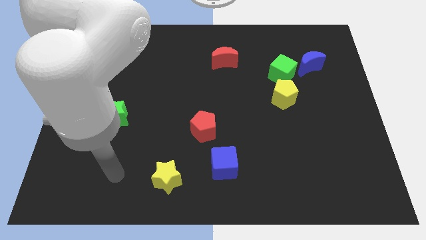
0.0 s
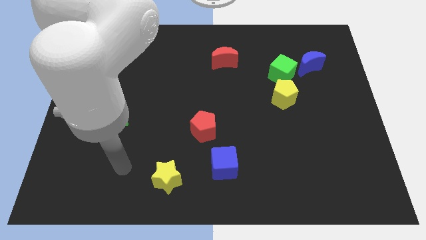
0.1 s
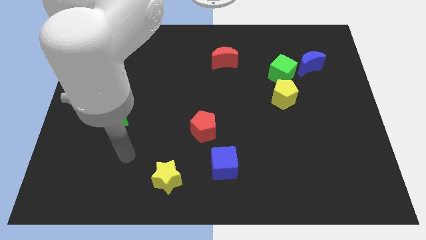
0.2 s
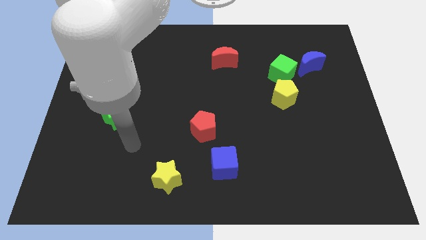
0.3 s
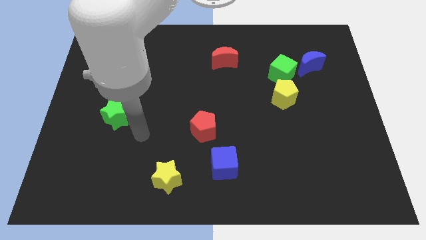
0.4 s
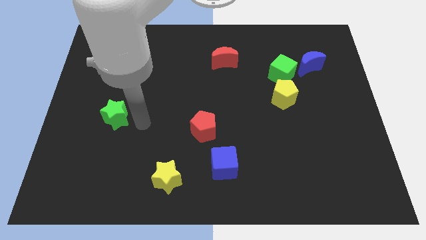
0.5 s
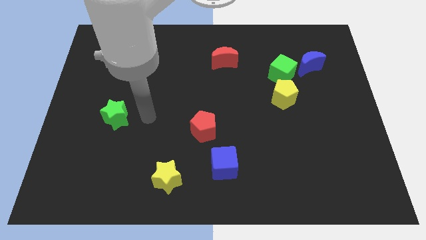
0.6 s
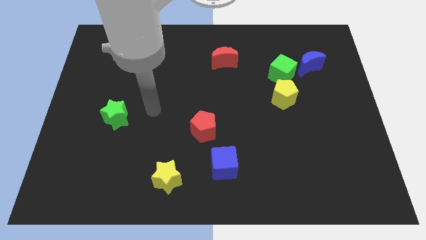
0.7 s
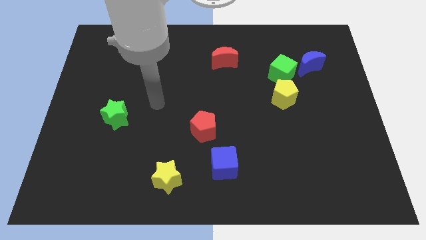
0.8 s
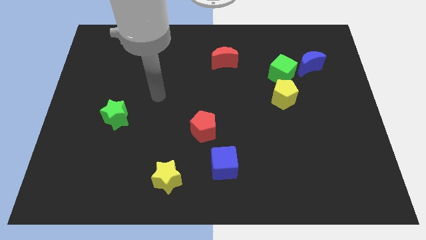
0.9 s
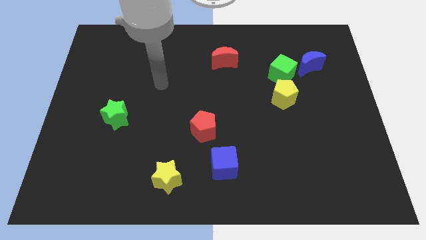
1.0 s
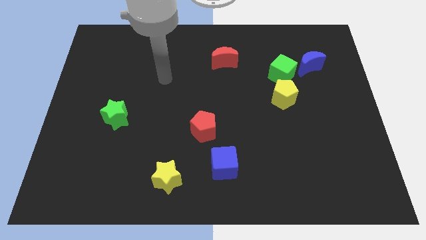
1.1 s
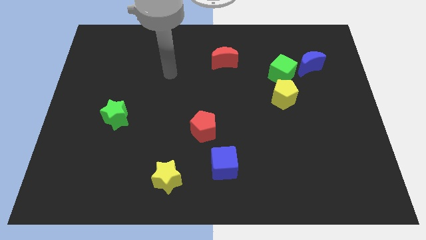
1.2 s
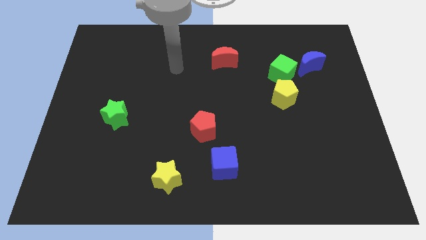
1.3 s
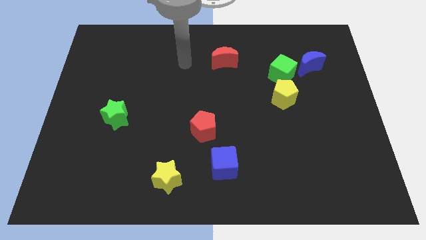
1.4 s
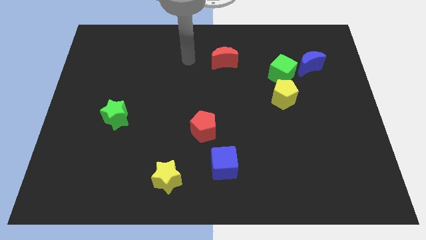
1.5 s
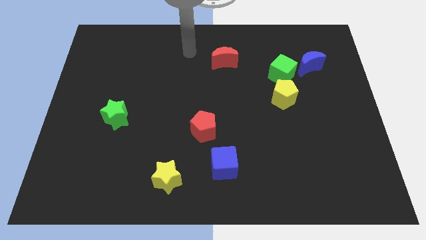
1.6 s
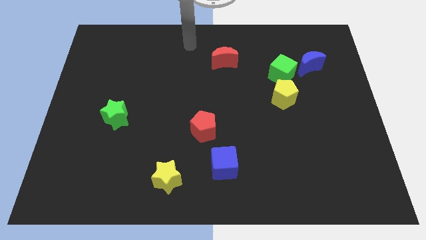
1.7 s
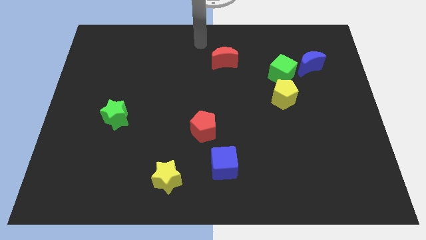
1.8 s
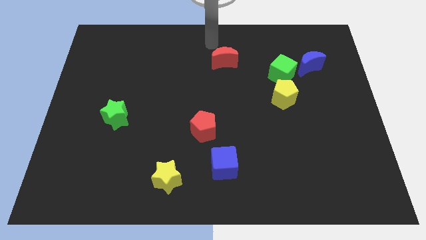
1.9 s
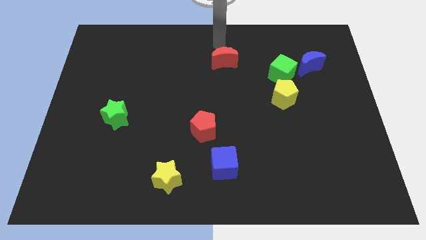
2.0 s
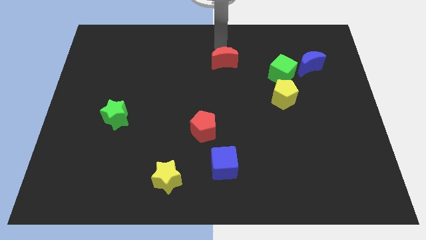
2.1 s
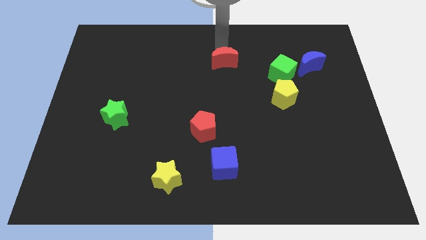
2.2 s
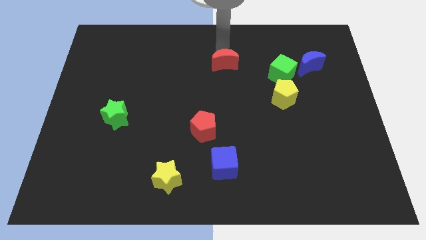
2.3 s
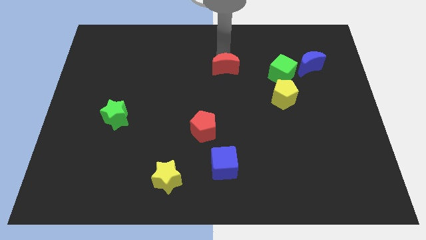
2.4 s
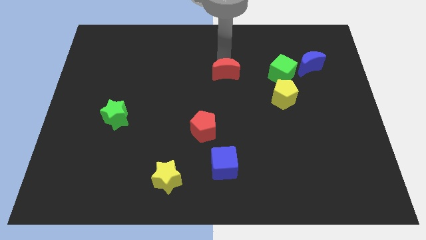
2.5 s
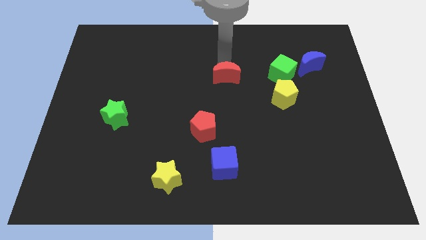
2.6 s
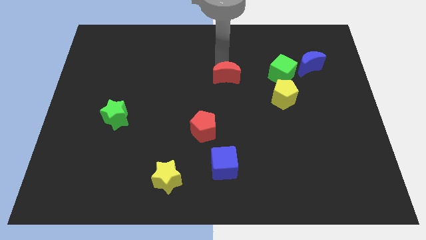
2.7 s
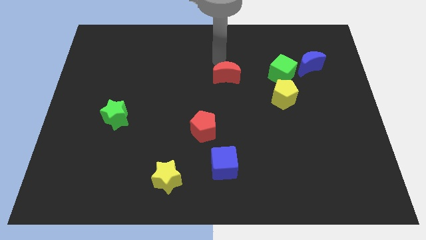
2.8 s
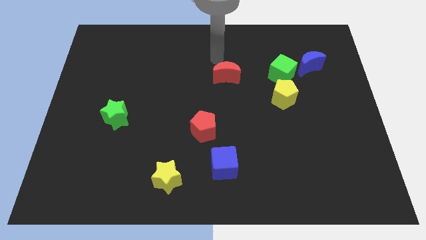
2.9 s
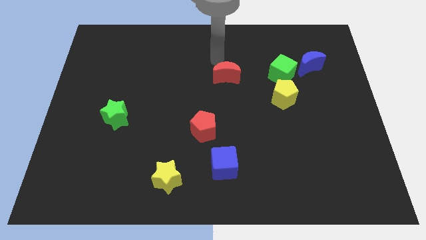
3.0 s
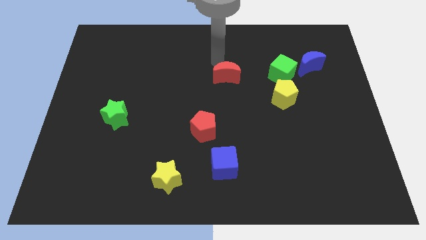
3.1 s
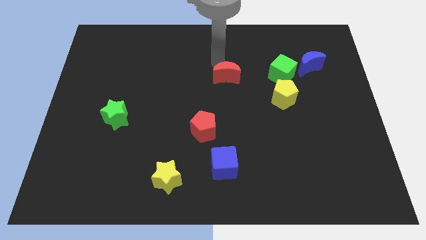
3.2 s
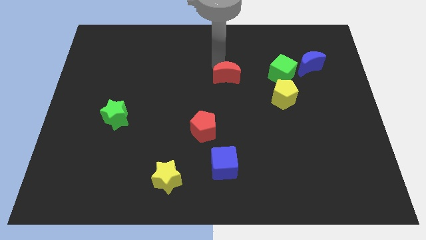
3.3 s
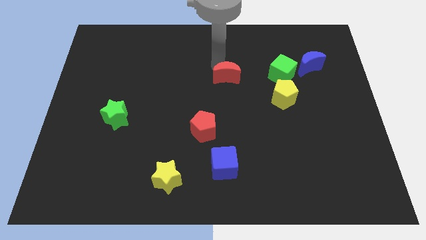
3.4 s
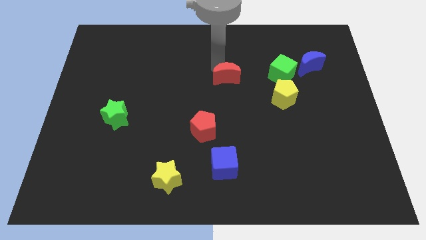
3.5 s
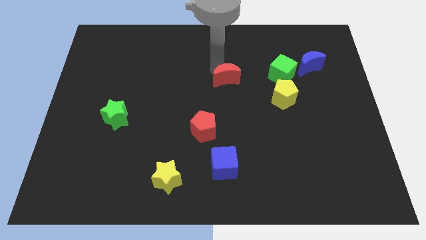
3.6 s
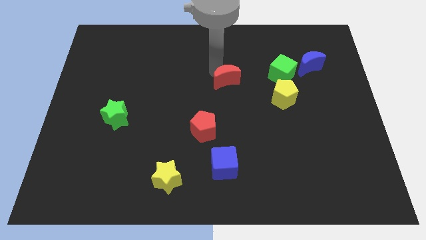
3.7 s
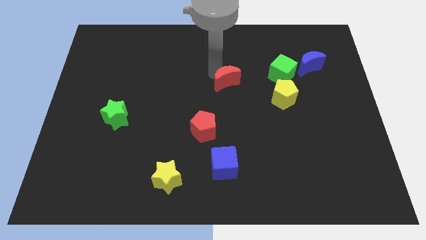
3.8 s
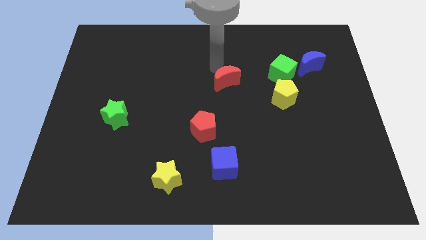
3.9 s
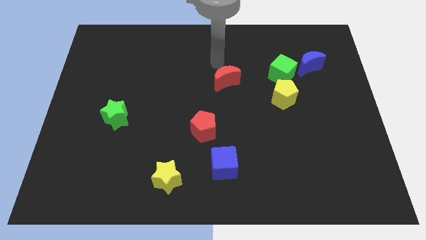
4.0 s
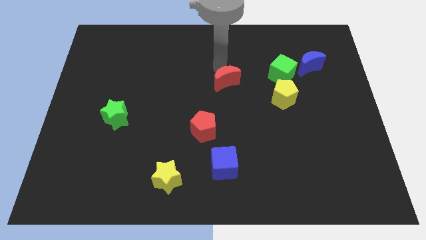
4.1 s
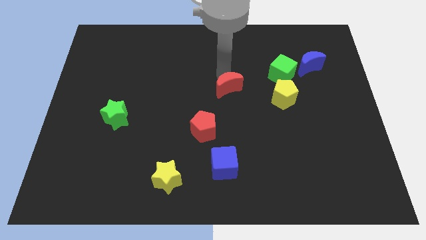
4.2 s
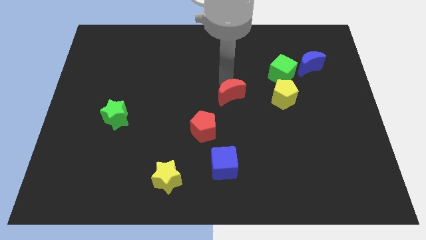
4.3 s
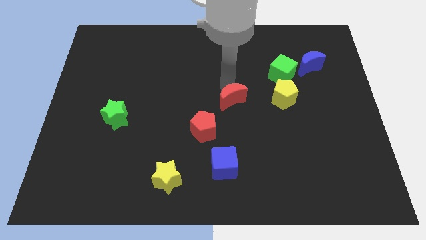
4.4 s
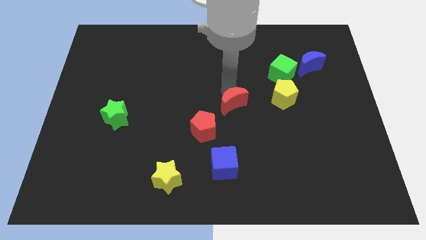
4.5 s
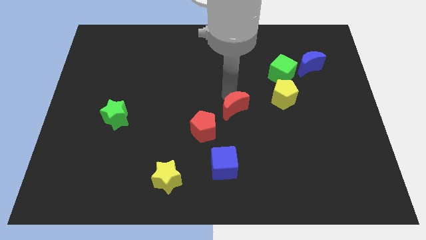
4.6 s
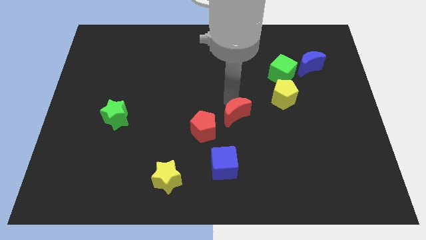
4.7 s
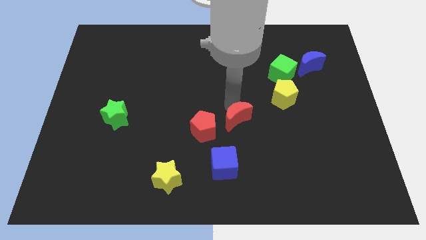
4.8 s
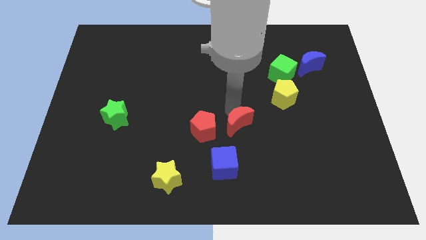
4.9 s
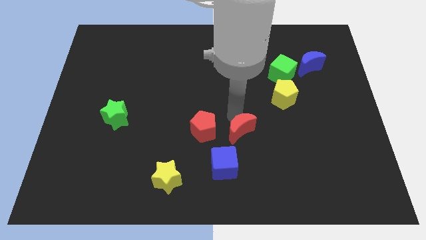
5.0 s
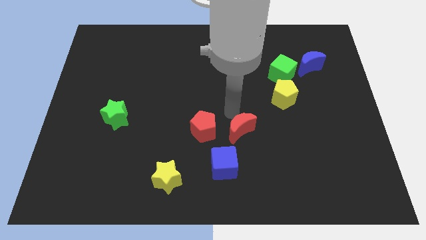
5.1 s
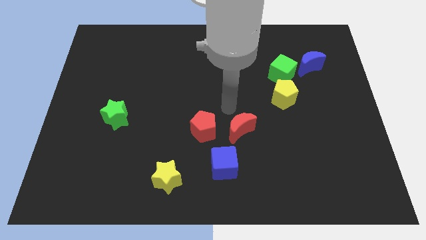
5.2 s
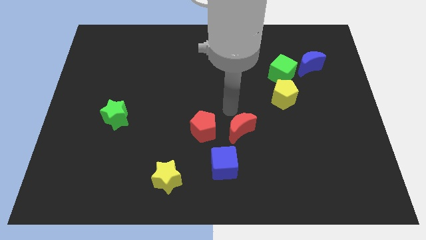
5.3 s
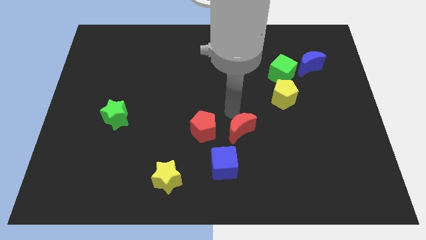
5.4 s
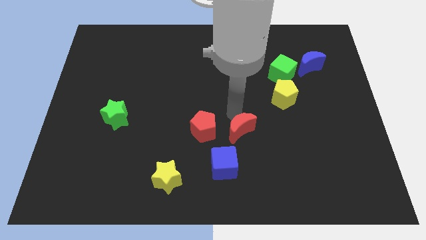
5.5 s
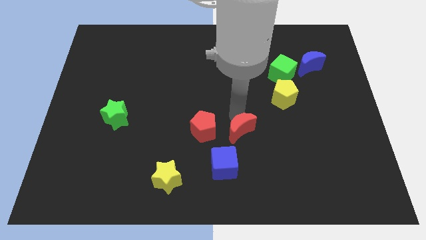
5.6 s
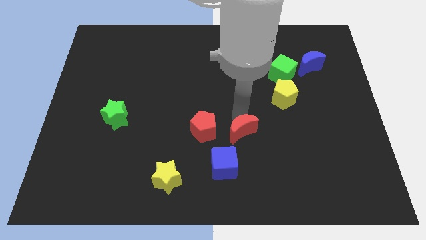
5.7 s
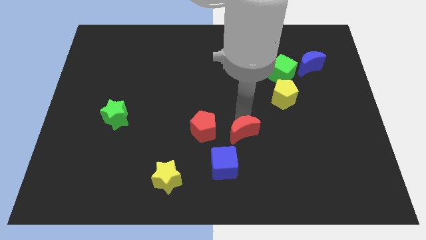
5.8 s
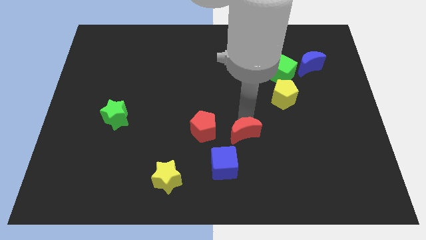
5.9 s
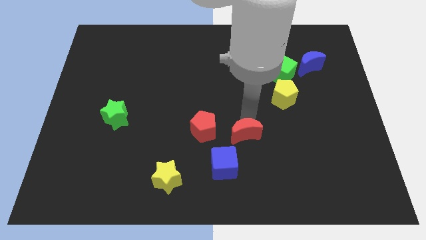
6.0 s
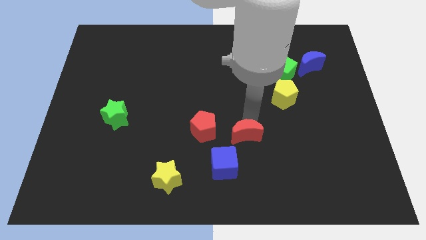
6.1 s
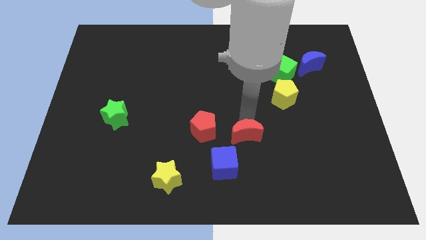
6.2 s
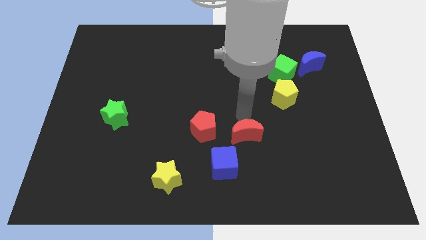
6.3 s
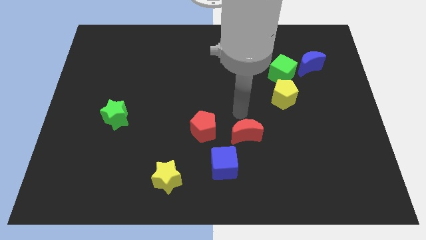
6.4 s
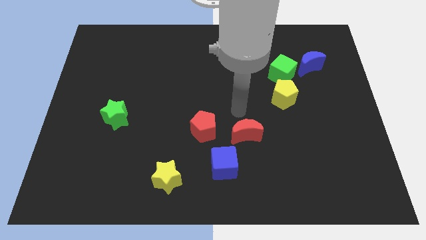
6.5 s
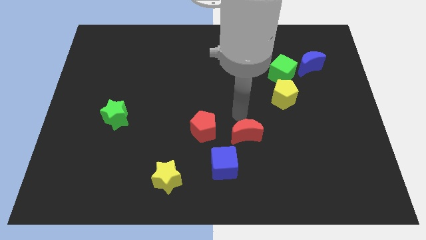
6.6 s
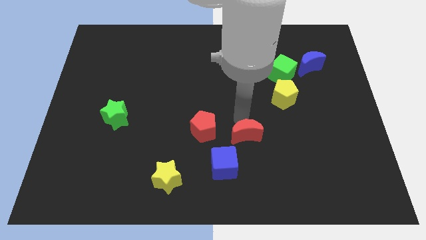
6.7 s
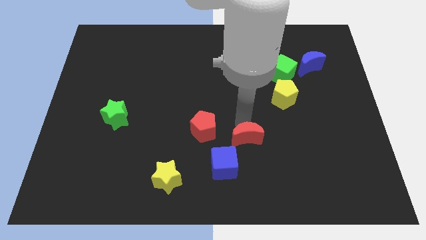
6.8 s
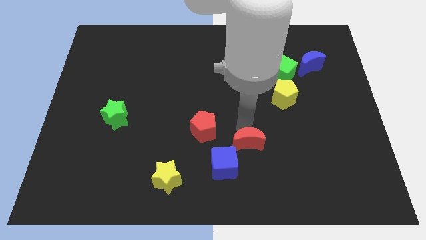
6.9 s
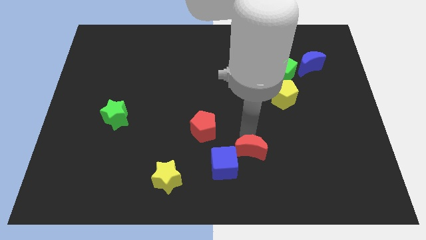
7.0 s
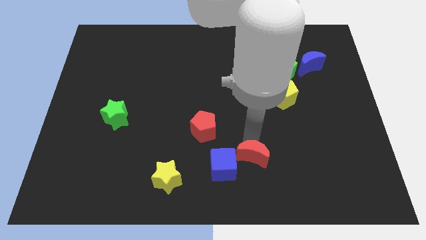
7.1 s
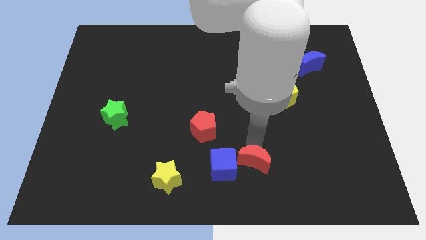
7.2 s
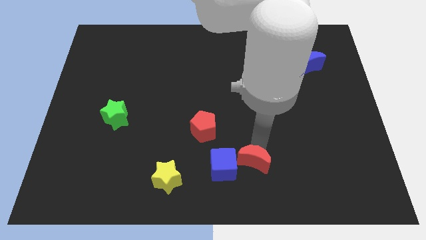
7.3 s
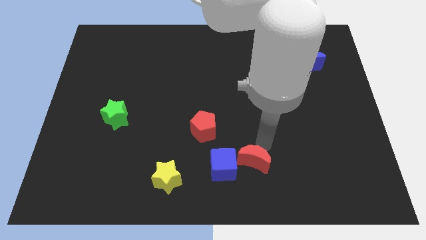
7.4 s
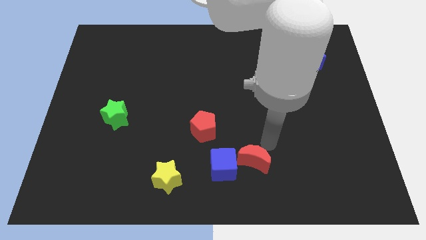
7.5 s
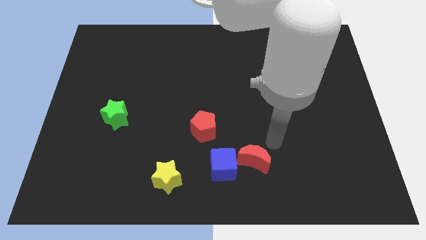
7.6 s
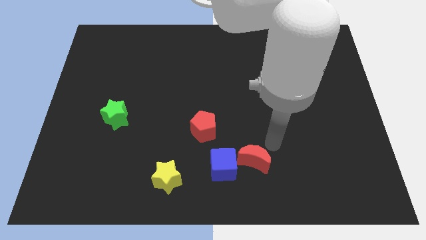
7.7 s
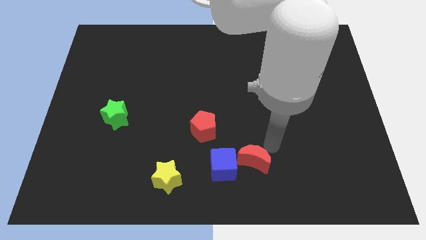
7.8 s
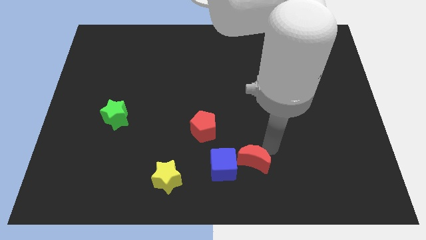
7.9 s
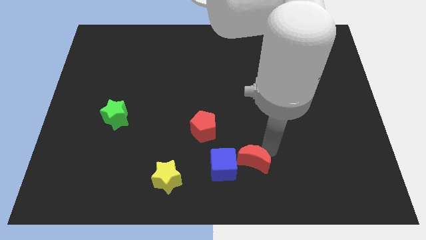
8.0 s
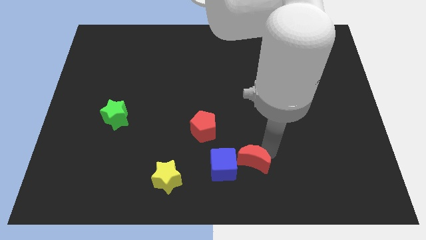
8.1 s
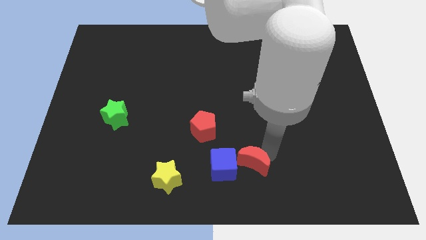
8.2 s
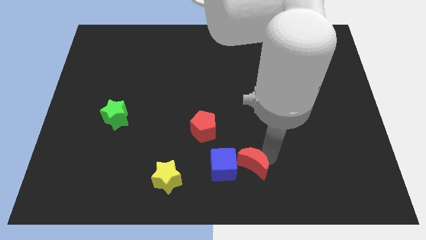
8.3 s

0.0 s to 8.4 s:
move the red moon to the bottom
